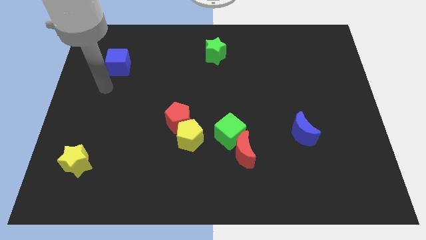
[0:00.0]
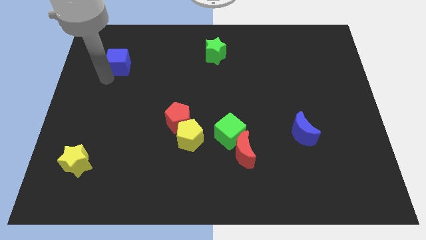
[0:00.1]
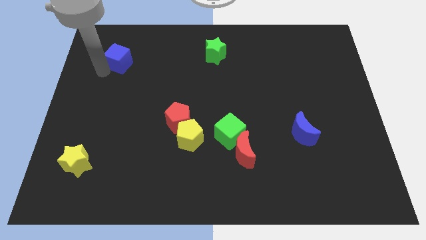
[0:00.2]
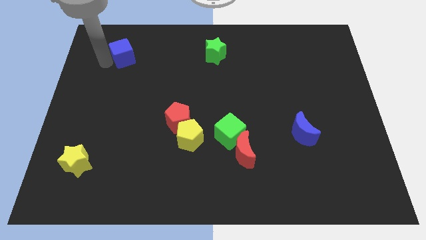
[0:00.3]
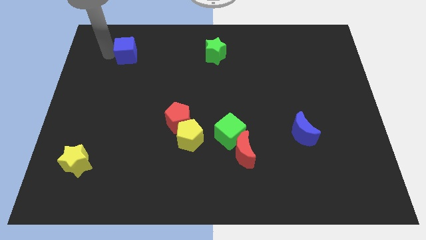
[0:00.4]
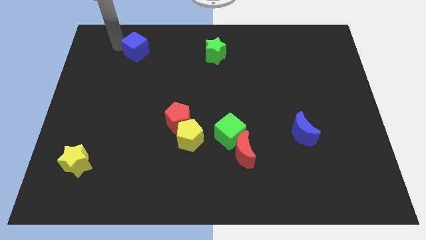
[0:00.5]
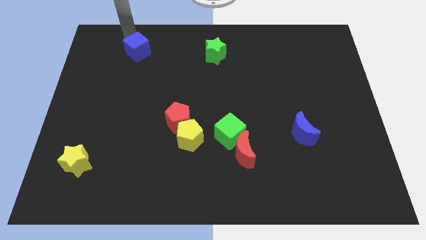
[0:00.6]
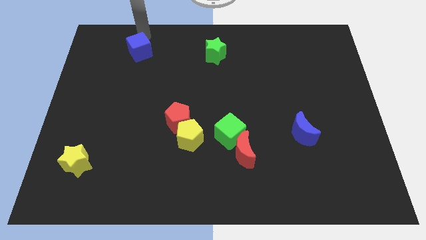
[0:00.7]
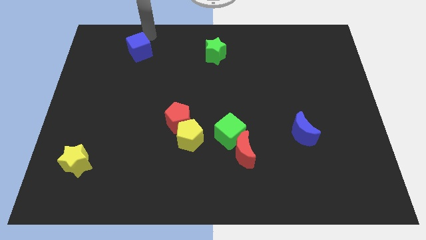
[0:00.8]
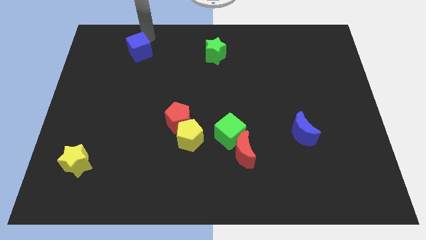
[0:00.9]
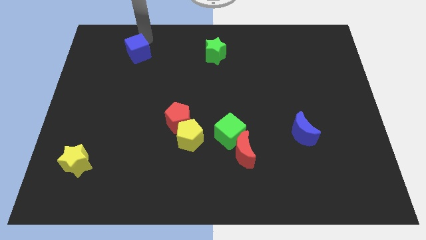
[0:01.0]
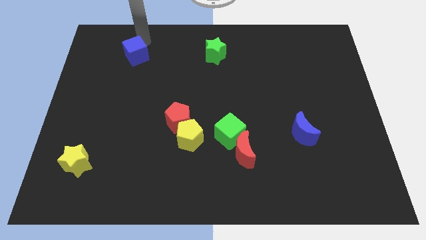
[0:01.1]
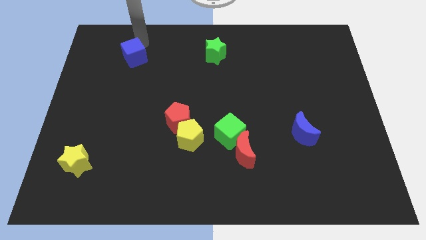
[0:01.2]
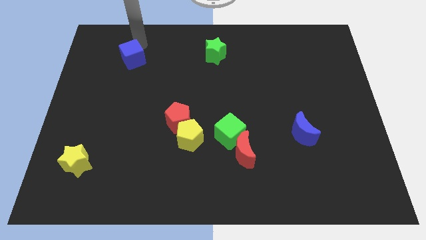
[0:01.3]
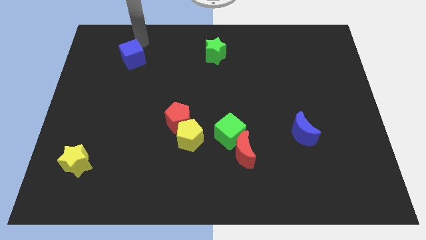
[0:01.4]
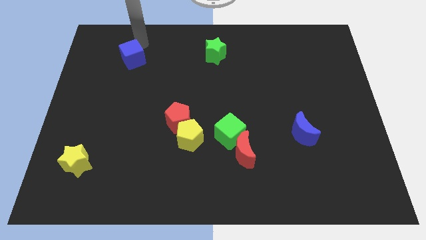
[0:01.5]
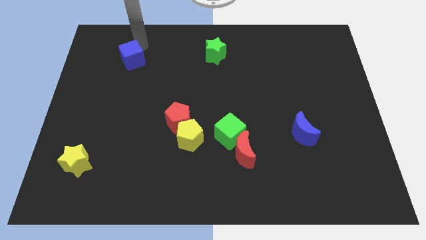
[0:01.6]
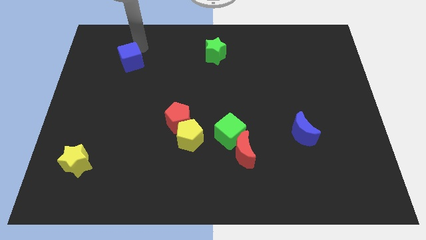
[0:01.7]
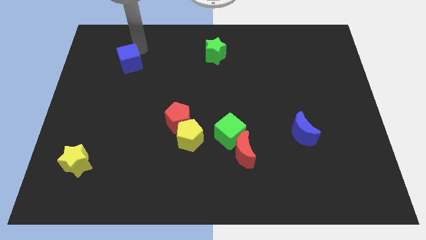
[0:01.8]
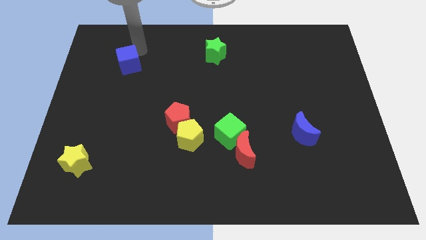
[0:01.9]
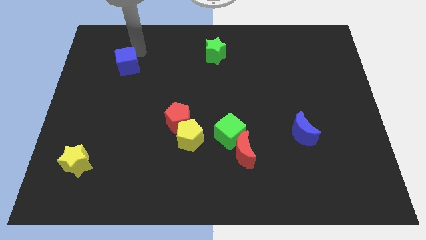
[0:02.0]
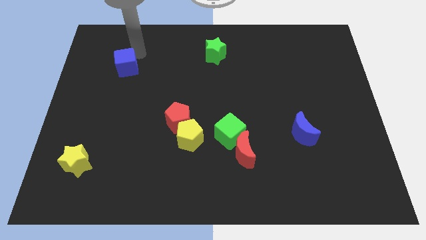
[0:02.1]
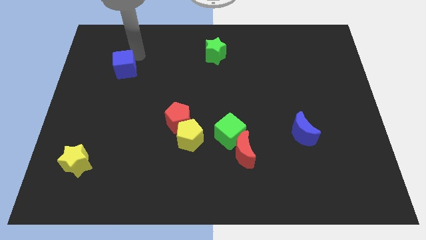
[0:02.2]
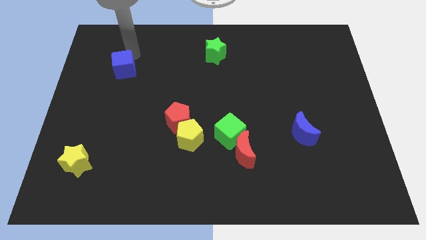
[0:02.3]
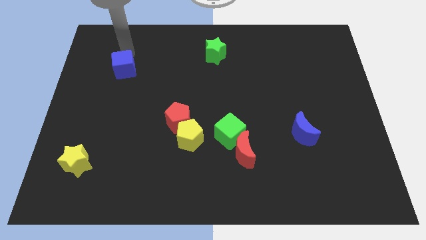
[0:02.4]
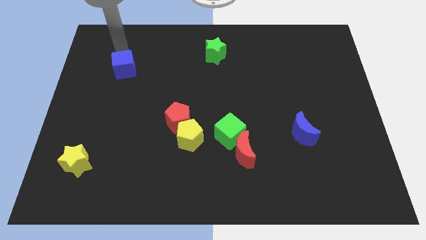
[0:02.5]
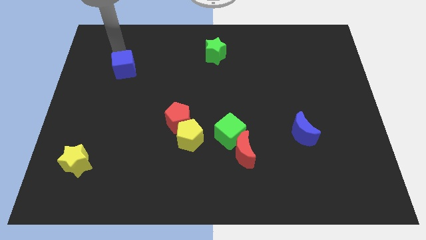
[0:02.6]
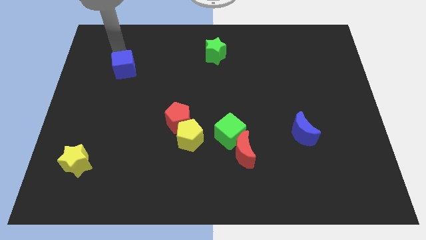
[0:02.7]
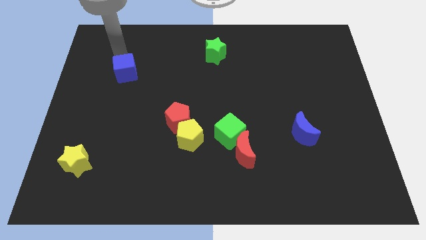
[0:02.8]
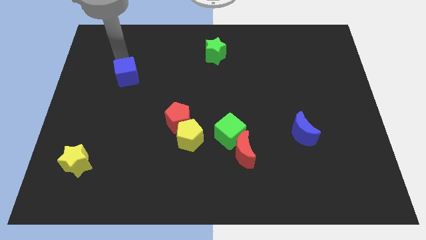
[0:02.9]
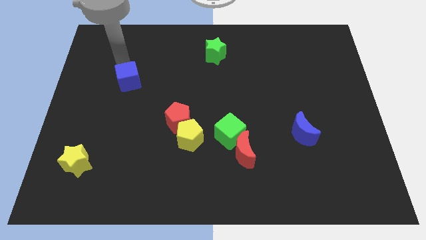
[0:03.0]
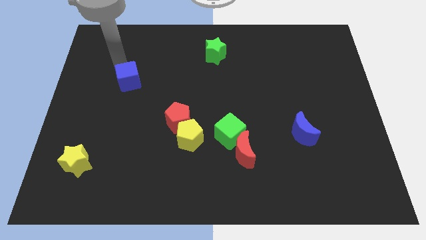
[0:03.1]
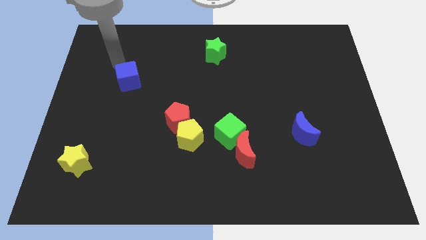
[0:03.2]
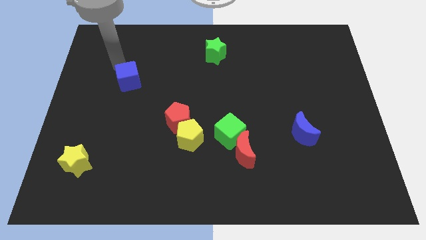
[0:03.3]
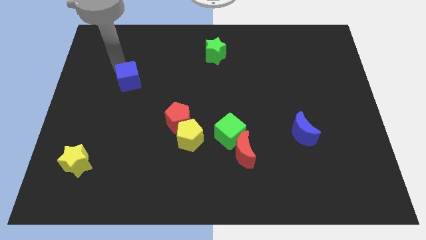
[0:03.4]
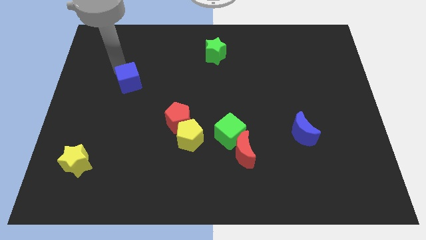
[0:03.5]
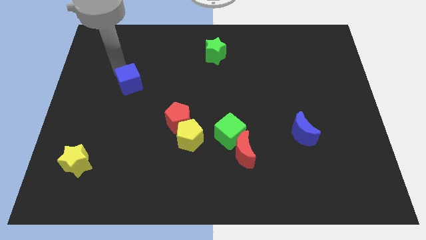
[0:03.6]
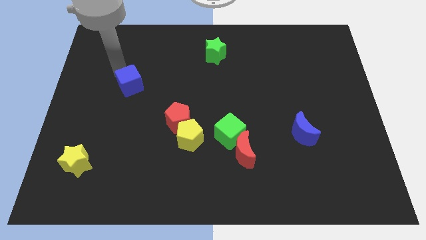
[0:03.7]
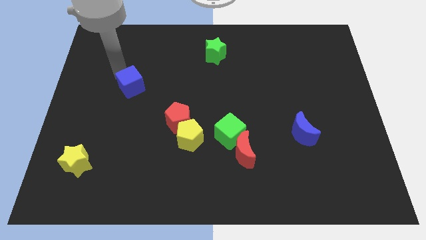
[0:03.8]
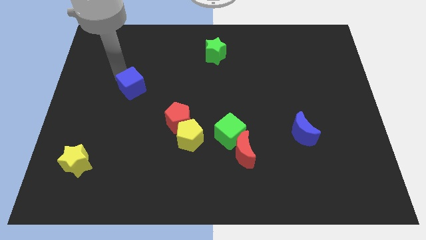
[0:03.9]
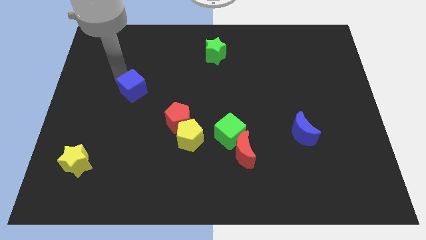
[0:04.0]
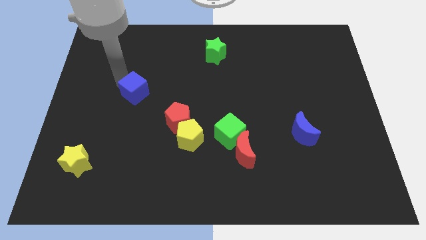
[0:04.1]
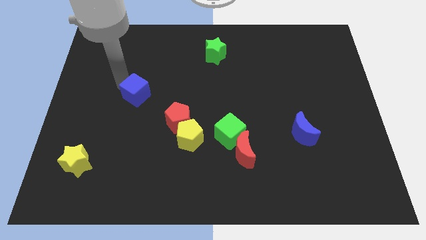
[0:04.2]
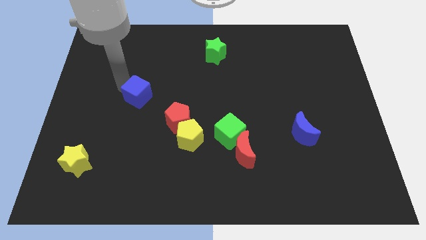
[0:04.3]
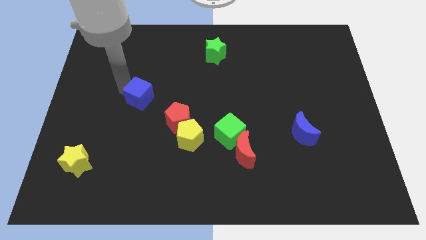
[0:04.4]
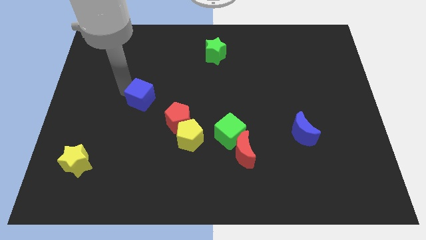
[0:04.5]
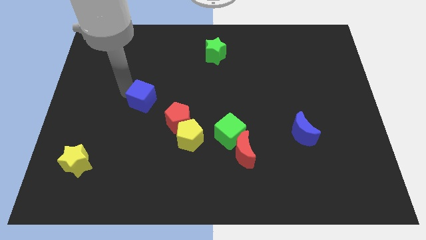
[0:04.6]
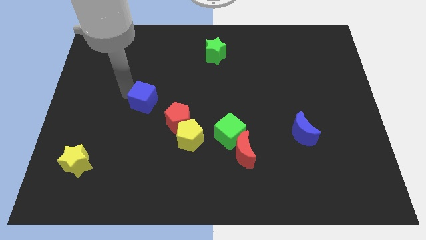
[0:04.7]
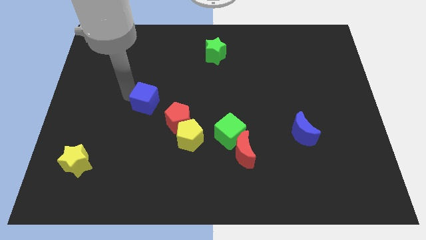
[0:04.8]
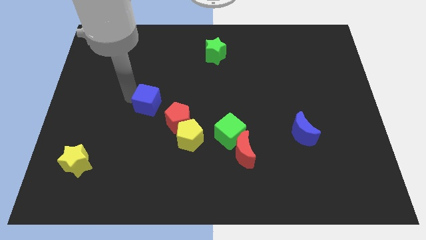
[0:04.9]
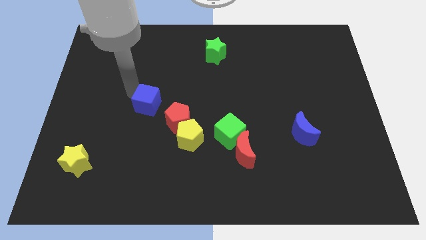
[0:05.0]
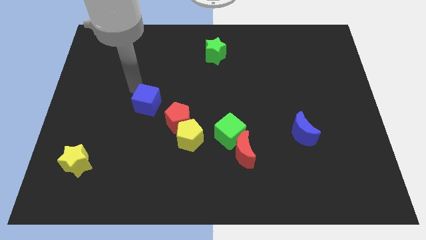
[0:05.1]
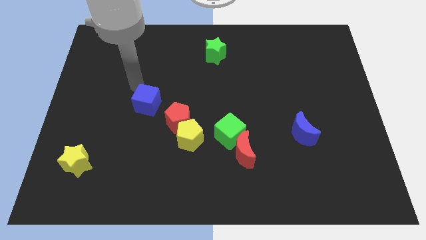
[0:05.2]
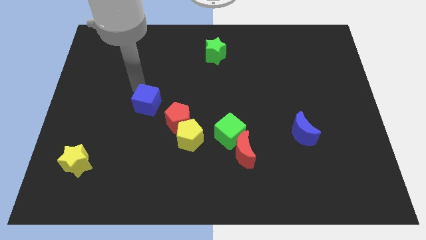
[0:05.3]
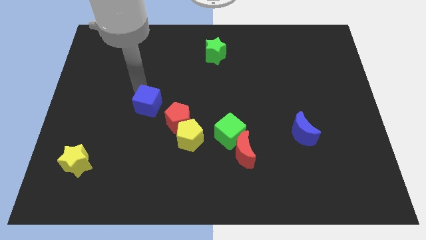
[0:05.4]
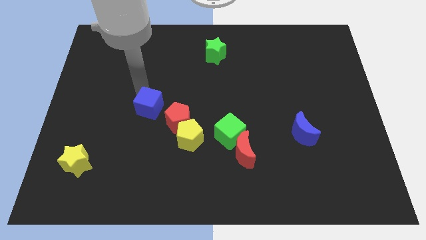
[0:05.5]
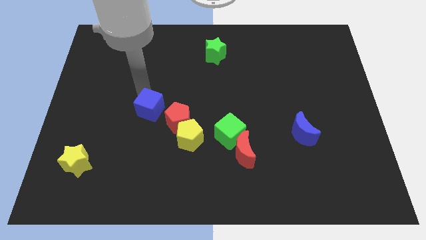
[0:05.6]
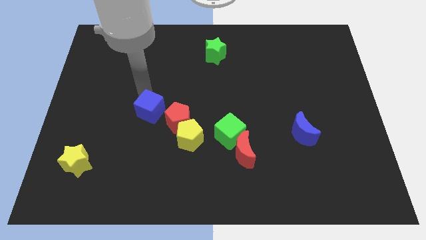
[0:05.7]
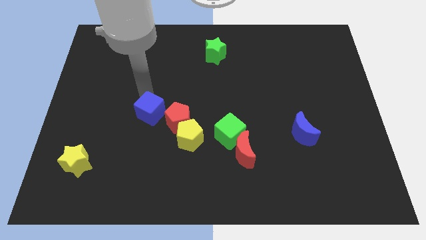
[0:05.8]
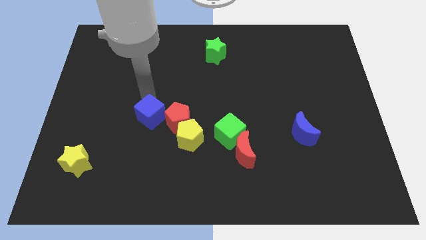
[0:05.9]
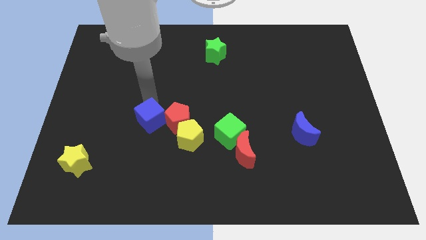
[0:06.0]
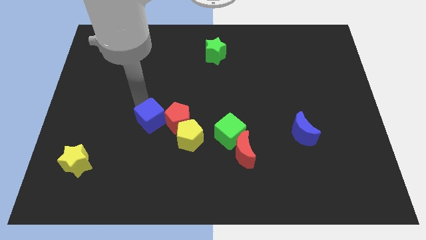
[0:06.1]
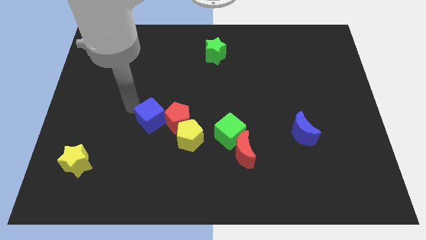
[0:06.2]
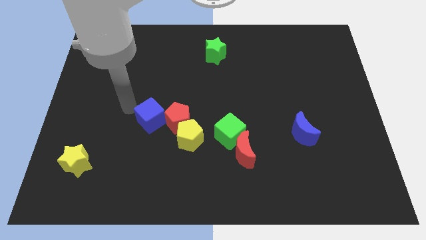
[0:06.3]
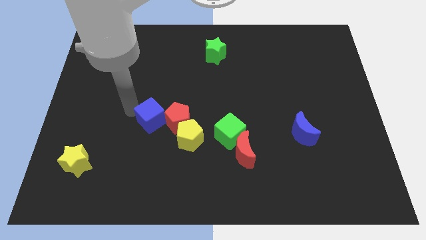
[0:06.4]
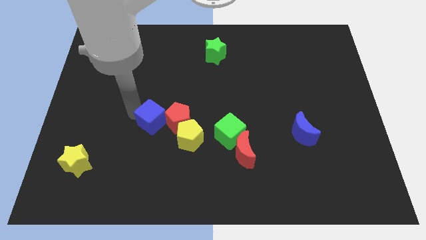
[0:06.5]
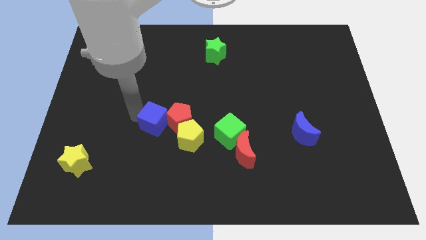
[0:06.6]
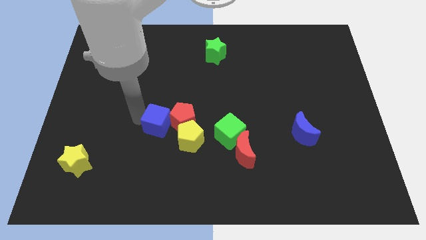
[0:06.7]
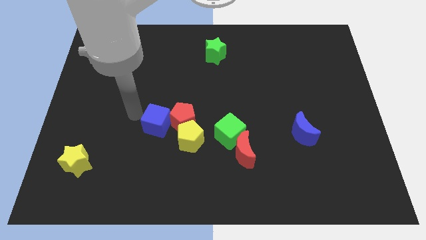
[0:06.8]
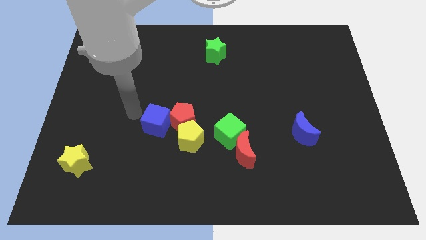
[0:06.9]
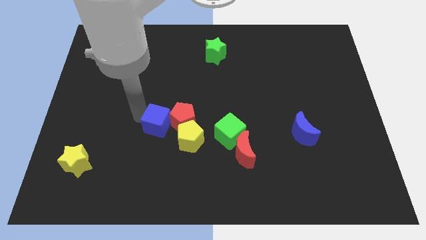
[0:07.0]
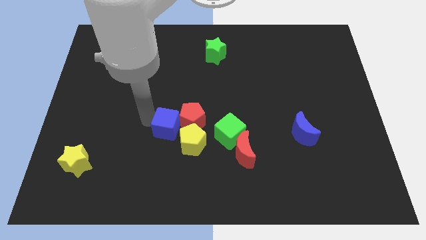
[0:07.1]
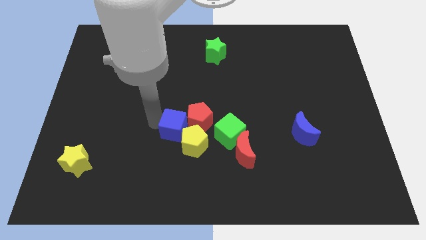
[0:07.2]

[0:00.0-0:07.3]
move the blue cube towards the yellow pentagon

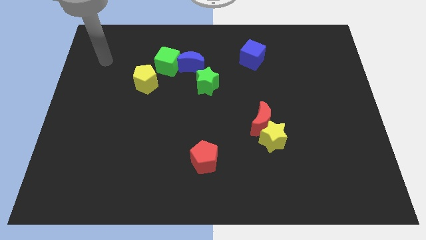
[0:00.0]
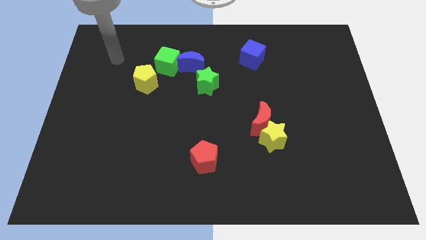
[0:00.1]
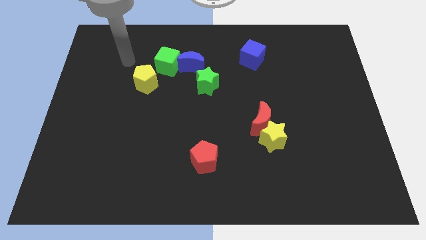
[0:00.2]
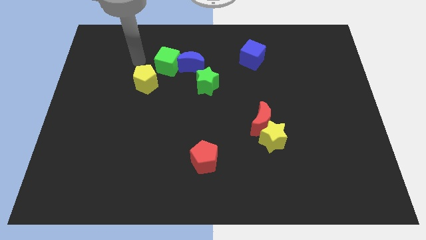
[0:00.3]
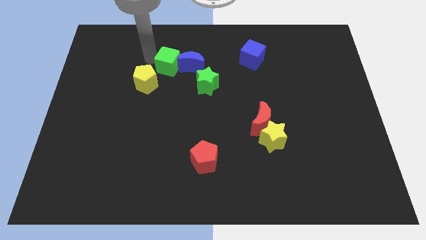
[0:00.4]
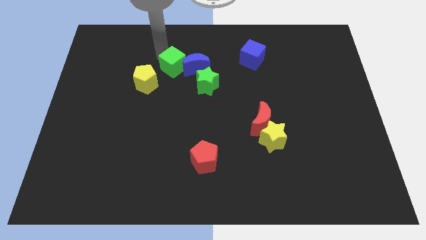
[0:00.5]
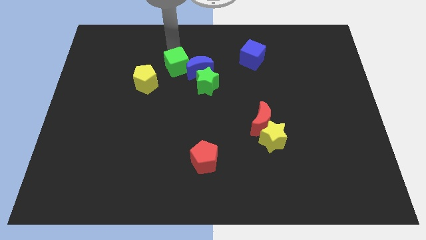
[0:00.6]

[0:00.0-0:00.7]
slide the blue moon next to the green star
